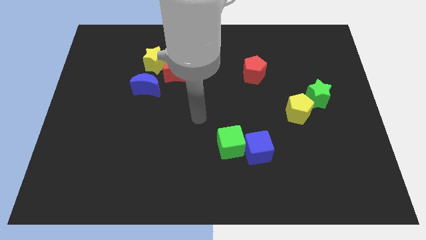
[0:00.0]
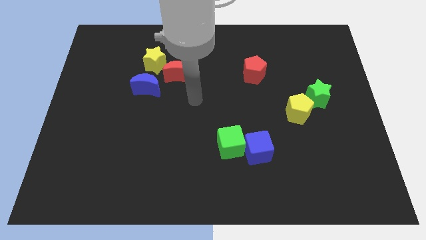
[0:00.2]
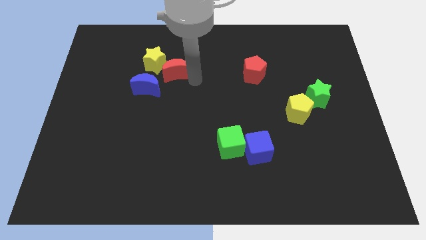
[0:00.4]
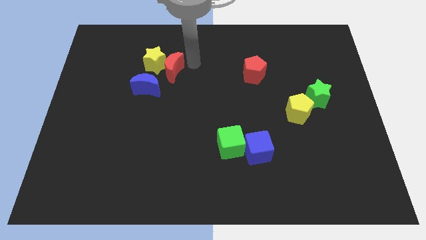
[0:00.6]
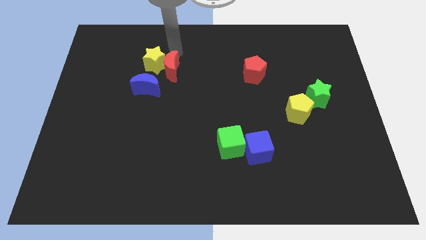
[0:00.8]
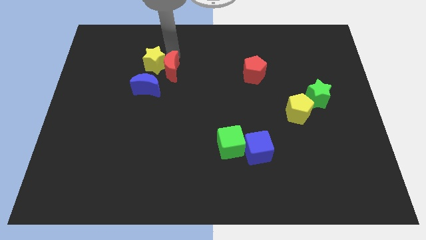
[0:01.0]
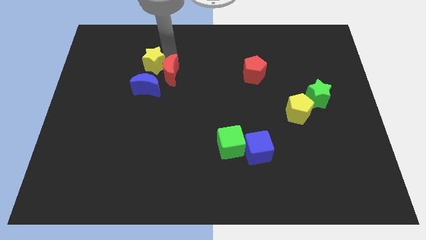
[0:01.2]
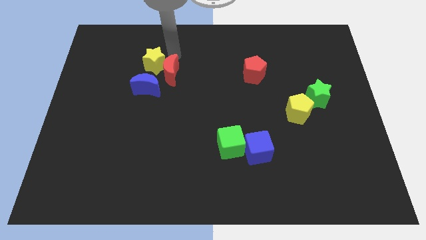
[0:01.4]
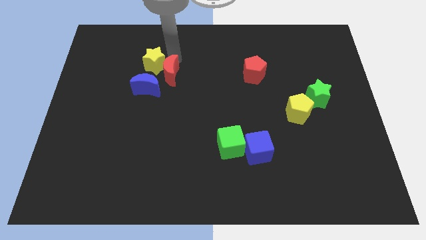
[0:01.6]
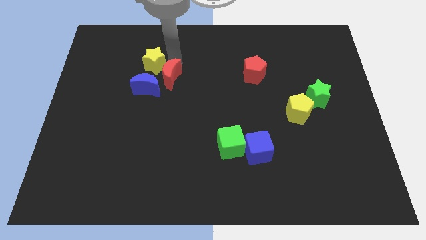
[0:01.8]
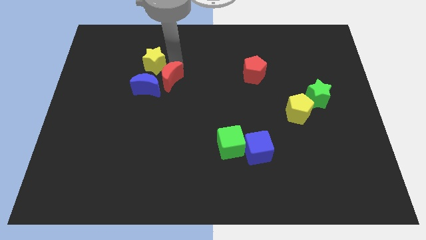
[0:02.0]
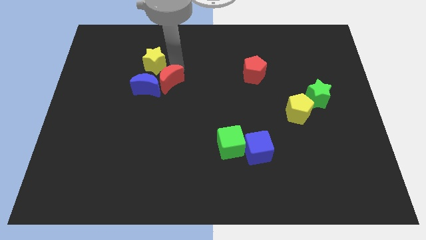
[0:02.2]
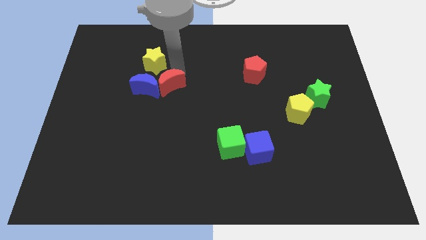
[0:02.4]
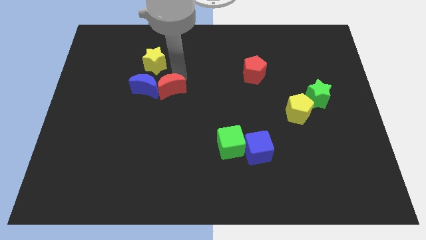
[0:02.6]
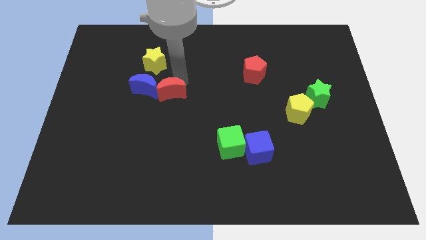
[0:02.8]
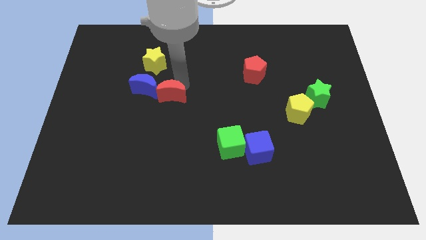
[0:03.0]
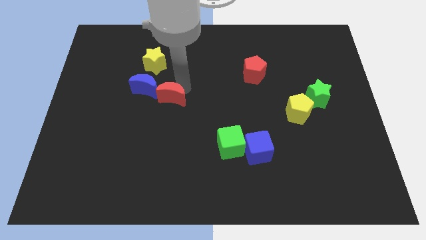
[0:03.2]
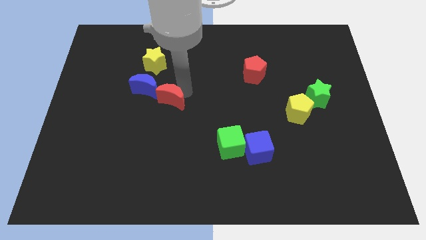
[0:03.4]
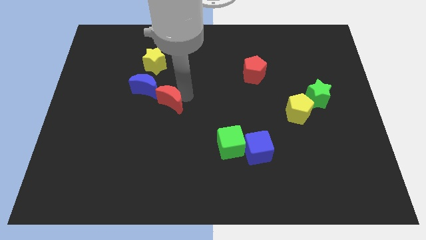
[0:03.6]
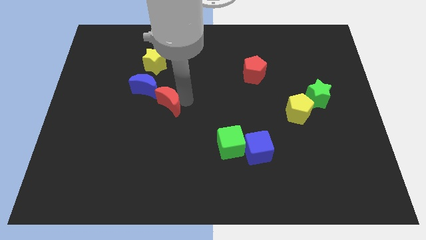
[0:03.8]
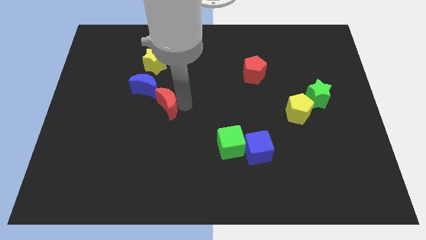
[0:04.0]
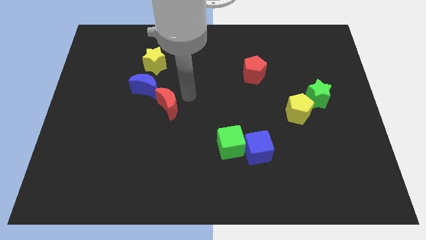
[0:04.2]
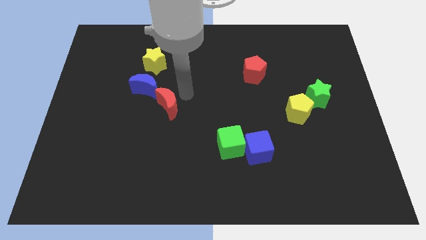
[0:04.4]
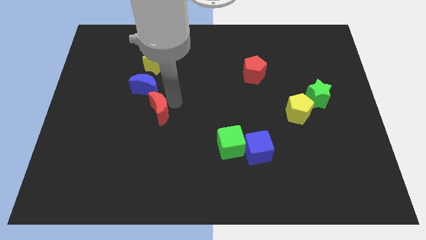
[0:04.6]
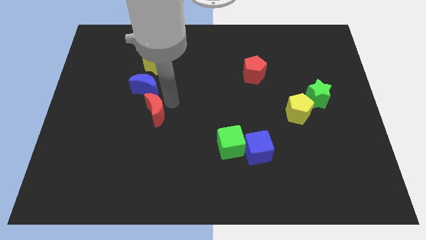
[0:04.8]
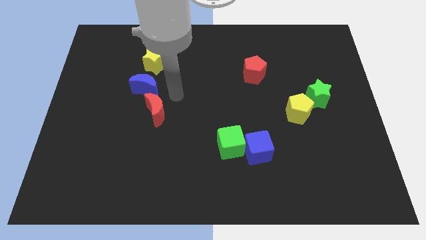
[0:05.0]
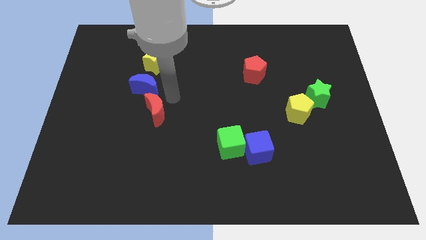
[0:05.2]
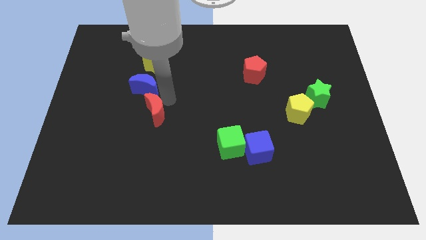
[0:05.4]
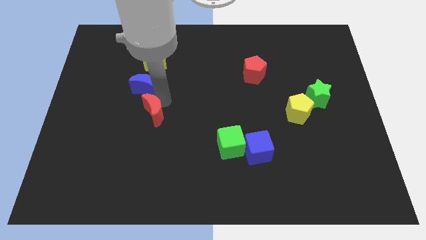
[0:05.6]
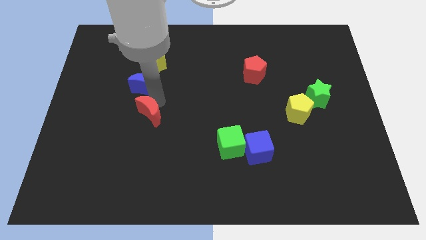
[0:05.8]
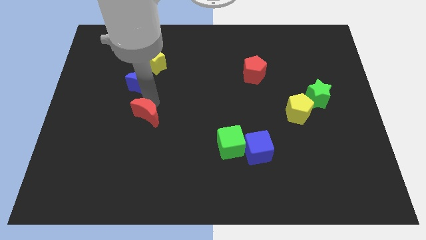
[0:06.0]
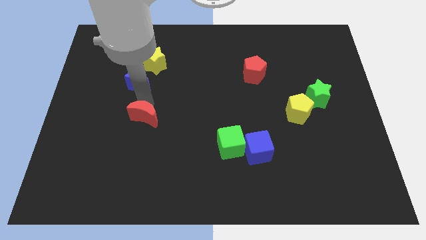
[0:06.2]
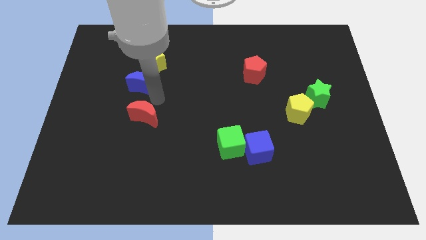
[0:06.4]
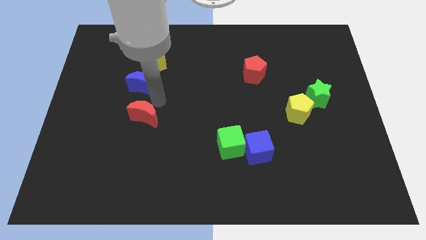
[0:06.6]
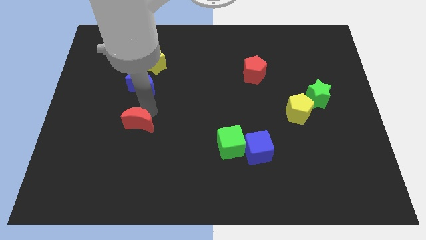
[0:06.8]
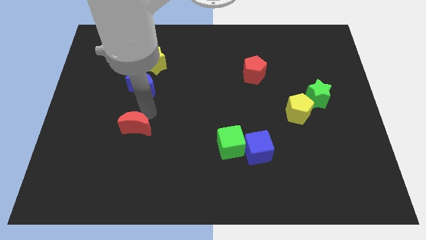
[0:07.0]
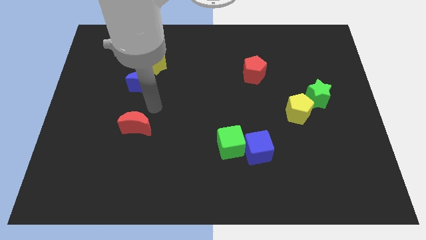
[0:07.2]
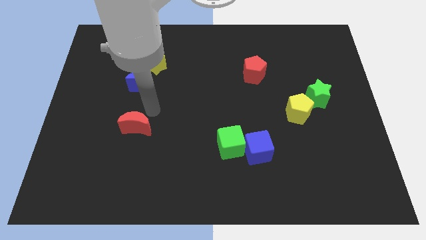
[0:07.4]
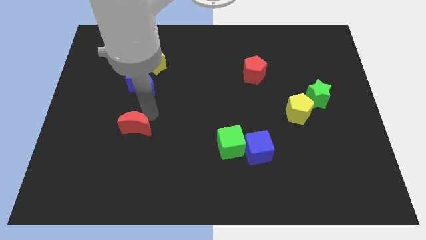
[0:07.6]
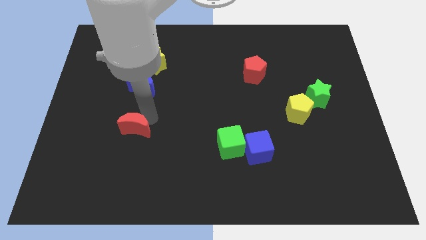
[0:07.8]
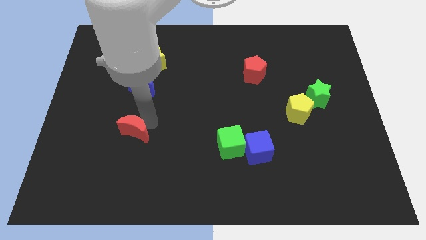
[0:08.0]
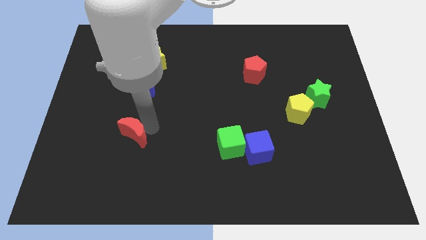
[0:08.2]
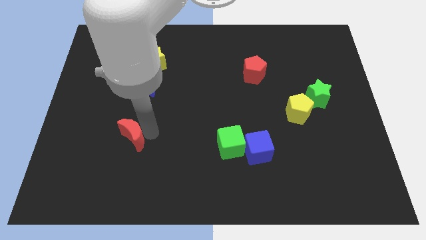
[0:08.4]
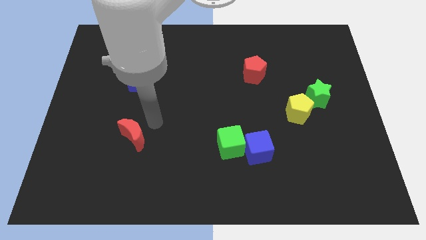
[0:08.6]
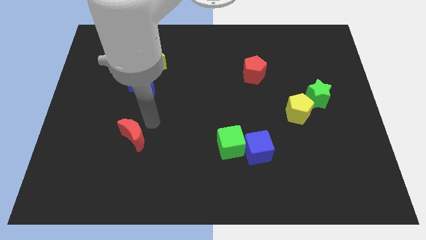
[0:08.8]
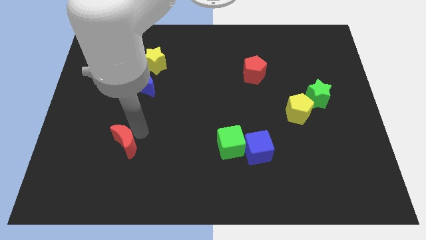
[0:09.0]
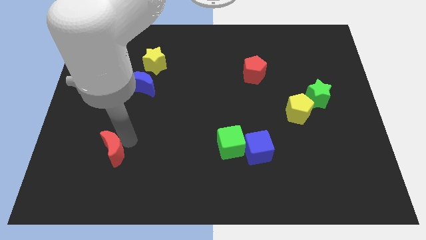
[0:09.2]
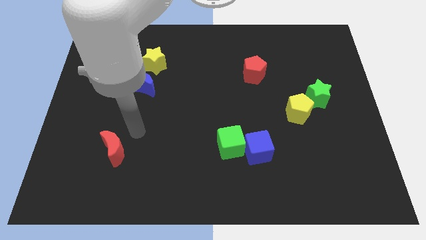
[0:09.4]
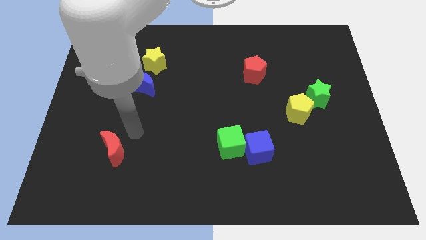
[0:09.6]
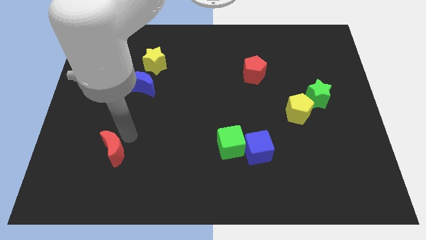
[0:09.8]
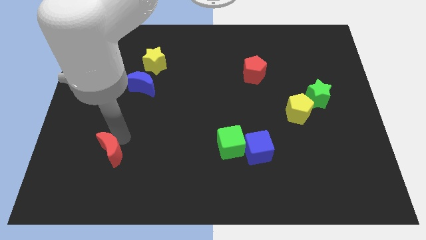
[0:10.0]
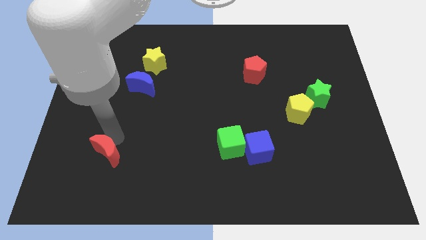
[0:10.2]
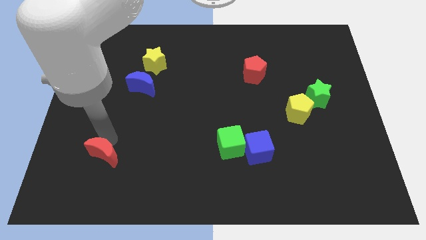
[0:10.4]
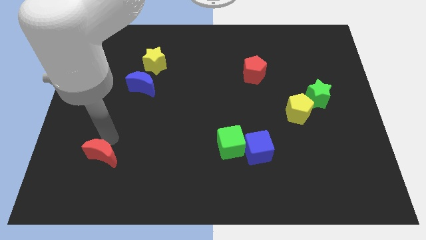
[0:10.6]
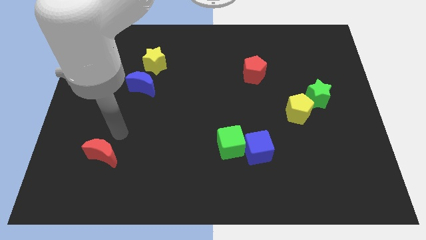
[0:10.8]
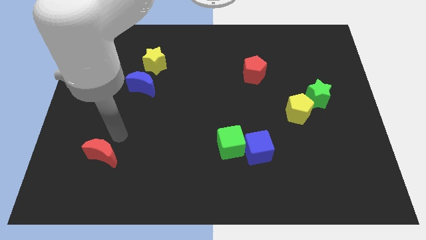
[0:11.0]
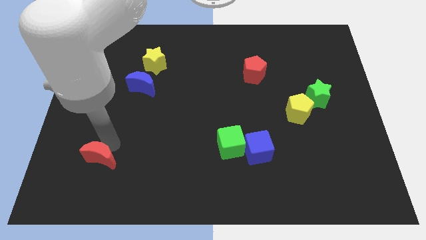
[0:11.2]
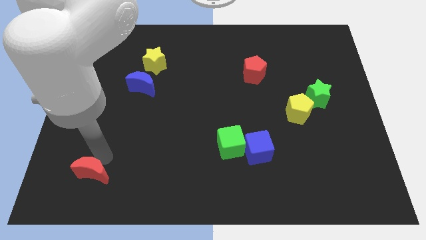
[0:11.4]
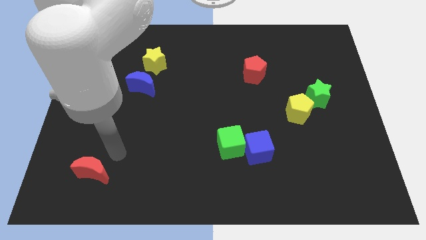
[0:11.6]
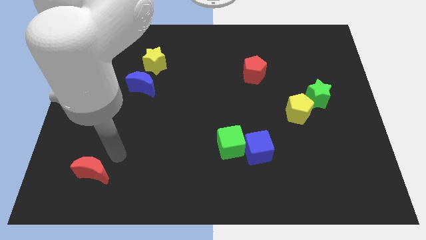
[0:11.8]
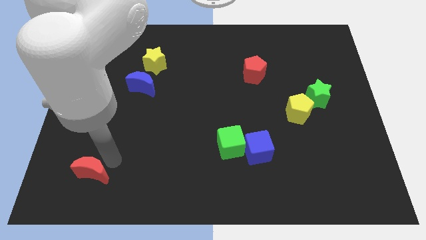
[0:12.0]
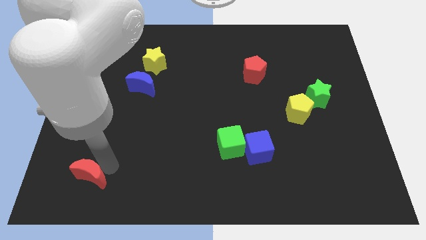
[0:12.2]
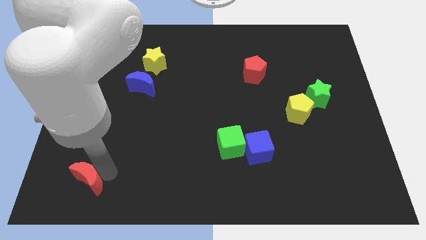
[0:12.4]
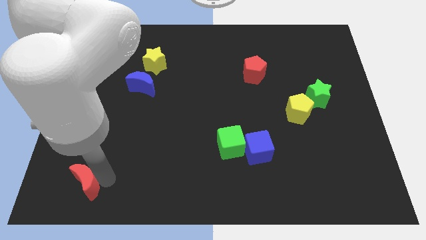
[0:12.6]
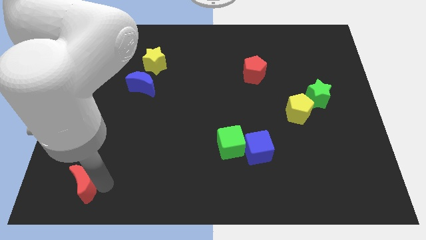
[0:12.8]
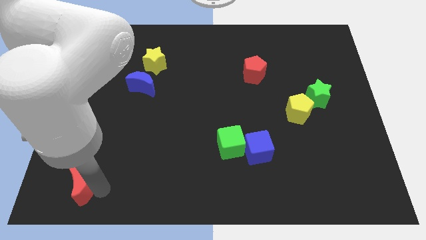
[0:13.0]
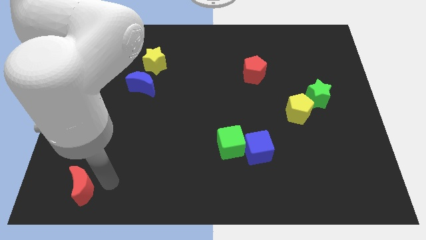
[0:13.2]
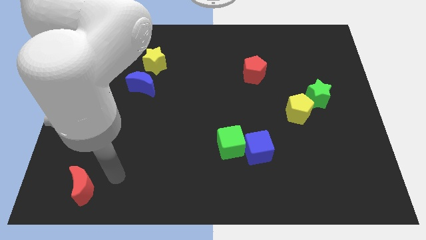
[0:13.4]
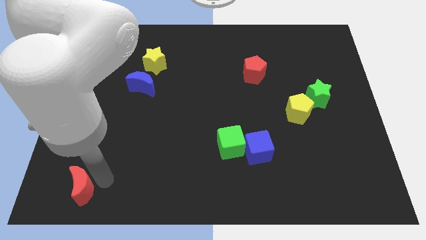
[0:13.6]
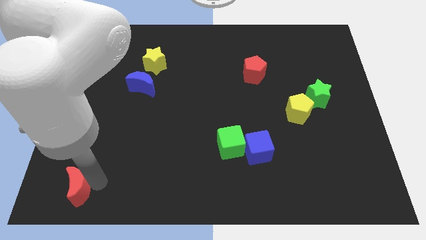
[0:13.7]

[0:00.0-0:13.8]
move the red moon to the bottom left corner
